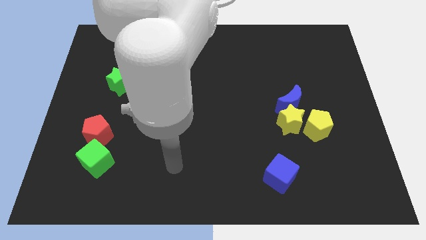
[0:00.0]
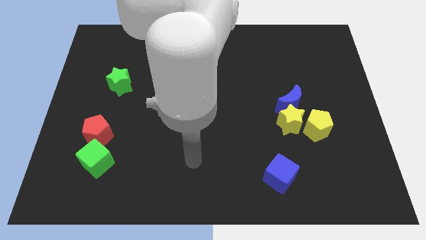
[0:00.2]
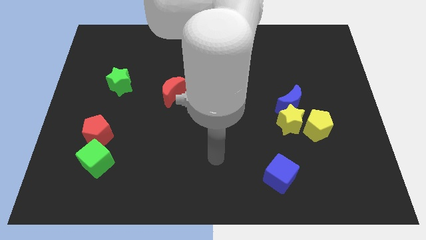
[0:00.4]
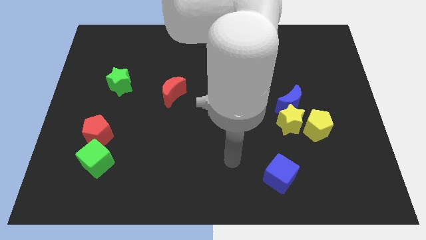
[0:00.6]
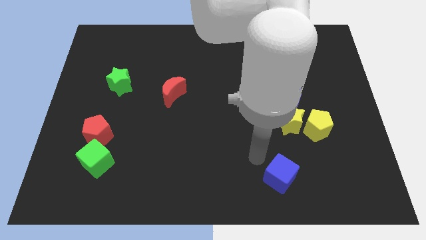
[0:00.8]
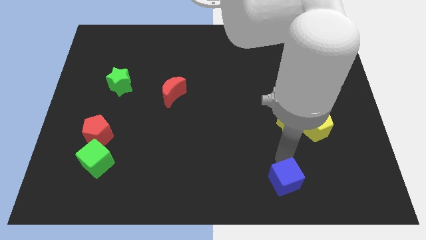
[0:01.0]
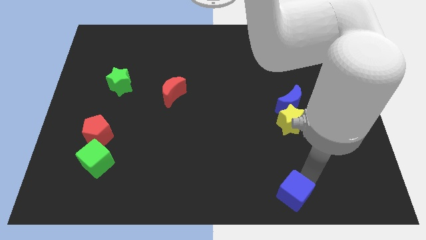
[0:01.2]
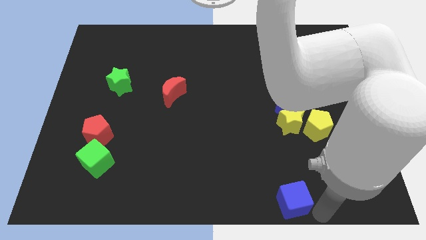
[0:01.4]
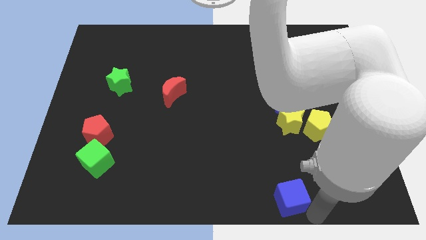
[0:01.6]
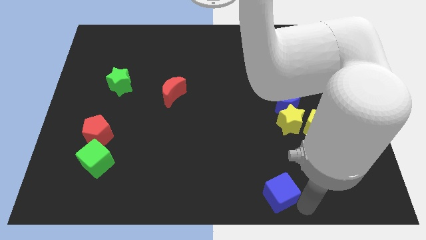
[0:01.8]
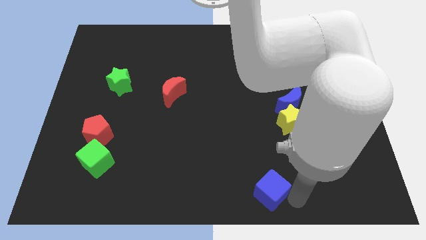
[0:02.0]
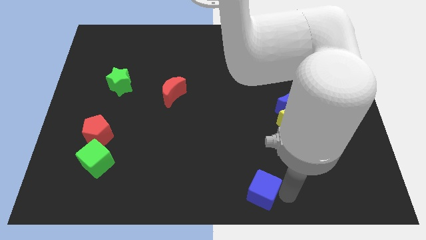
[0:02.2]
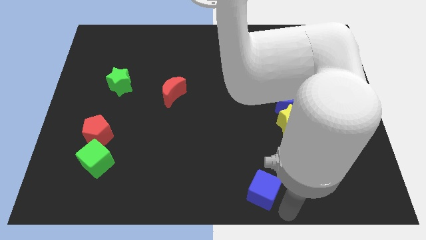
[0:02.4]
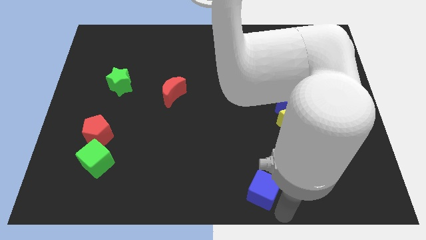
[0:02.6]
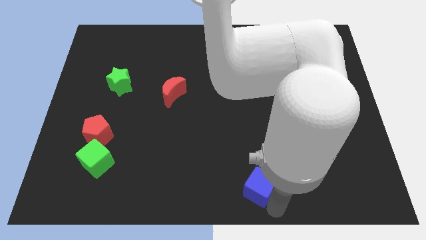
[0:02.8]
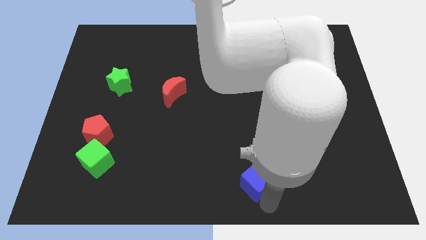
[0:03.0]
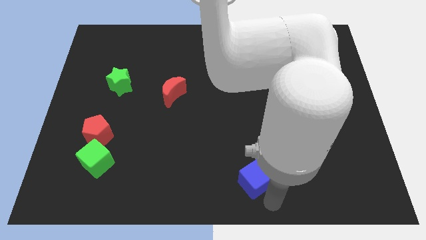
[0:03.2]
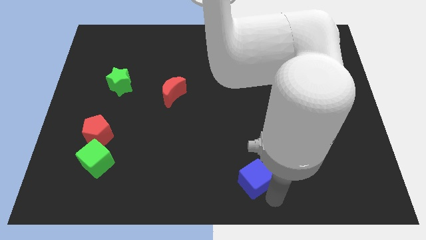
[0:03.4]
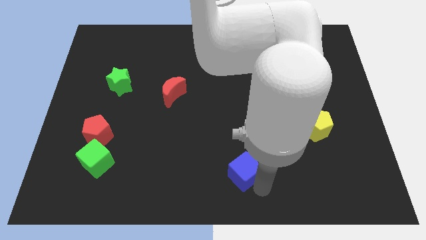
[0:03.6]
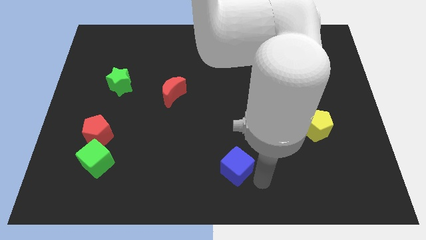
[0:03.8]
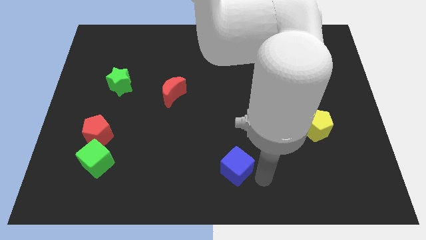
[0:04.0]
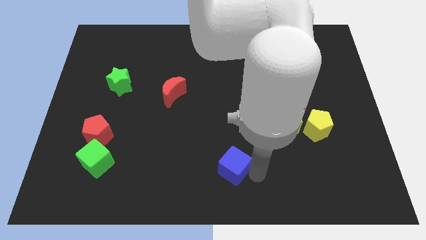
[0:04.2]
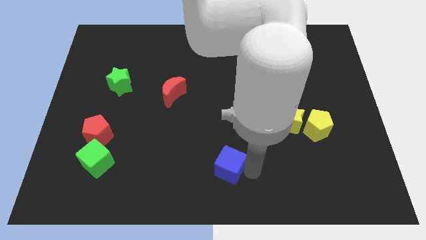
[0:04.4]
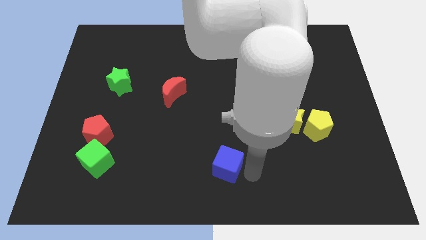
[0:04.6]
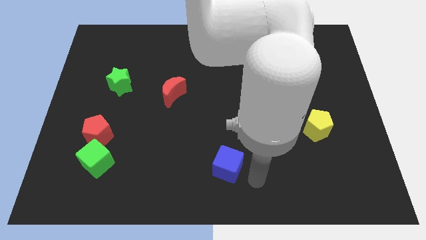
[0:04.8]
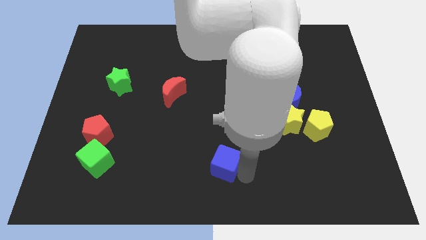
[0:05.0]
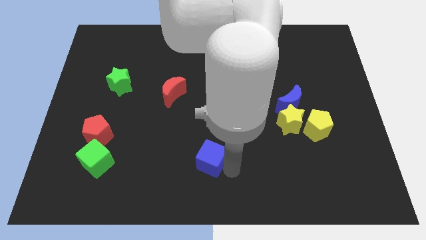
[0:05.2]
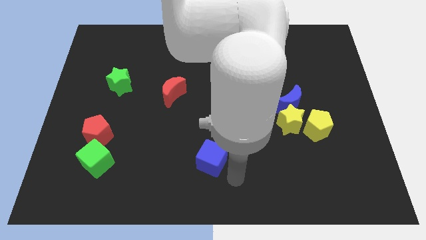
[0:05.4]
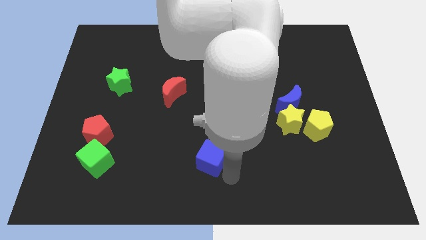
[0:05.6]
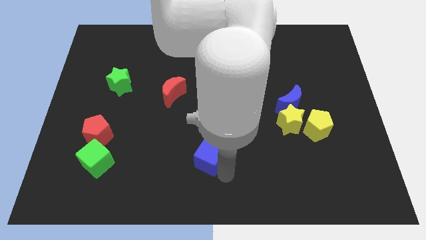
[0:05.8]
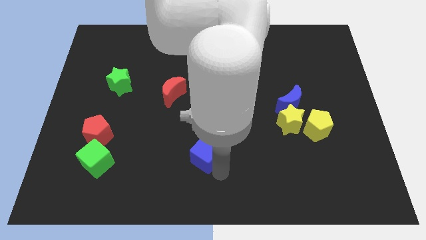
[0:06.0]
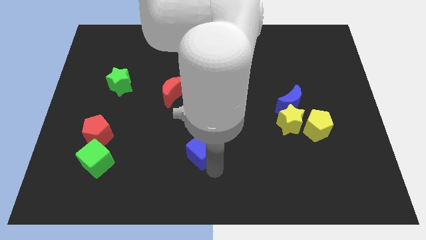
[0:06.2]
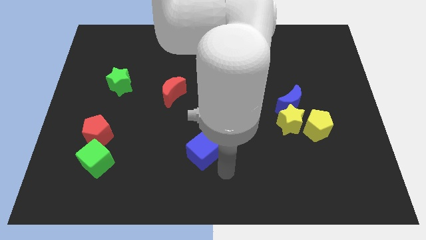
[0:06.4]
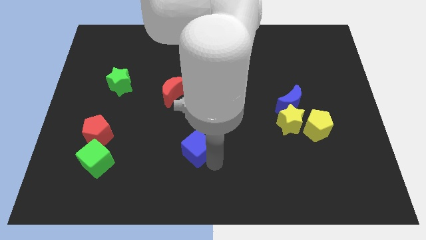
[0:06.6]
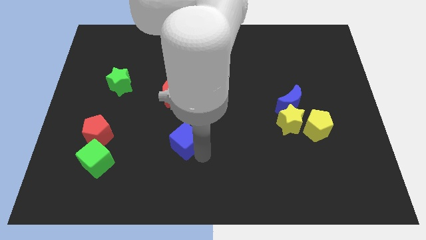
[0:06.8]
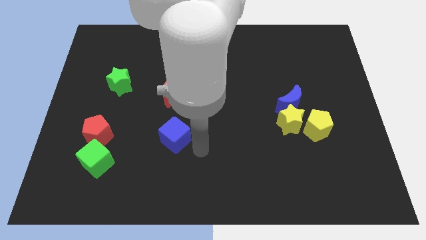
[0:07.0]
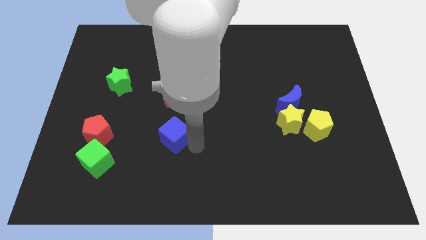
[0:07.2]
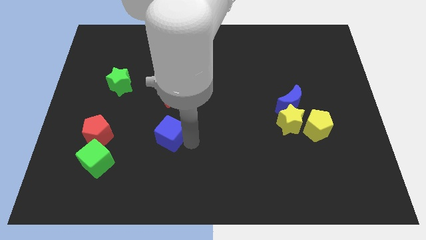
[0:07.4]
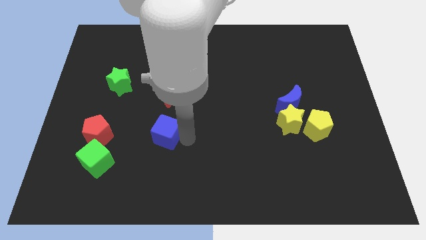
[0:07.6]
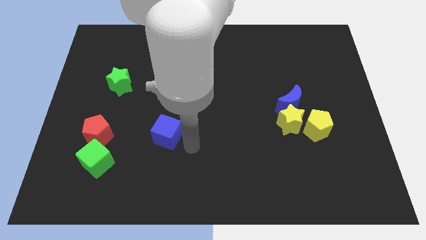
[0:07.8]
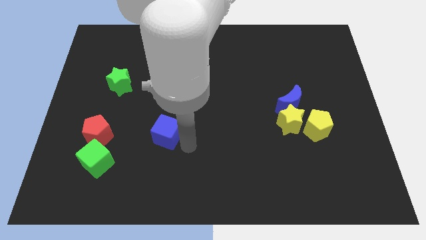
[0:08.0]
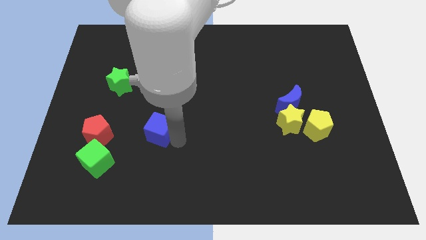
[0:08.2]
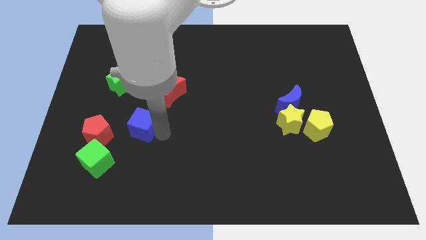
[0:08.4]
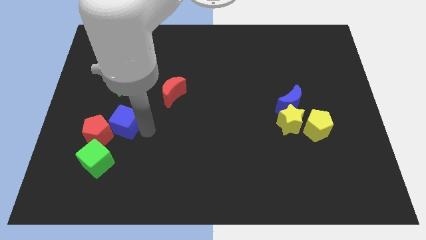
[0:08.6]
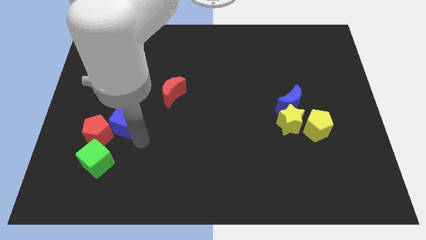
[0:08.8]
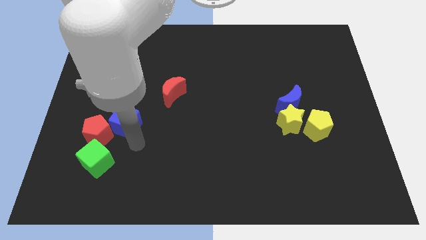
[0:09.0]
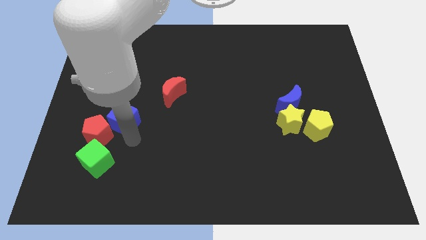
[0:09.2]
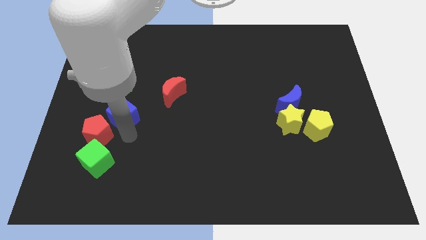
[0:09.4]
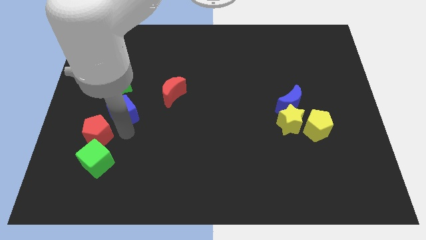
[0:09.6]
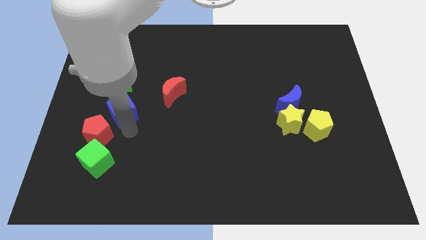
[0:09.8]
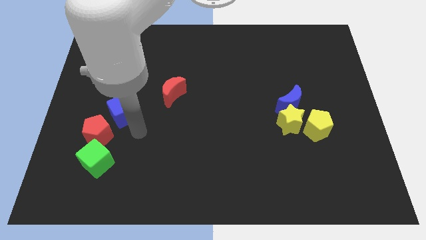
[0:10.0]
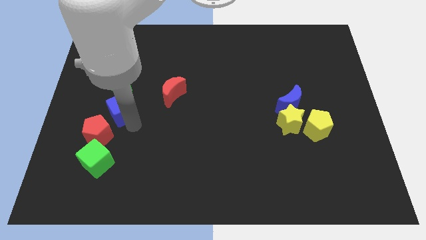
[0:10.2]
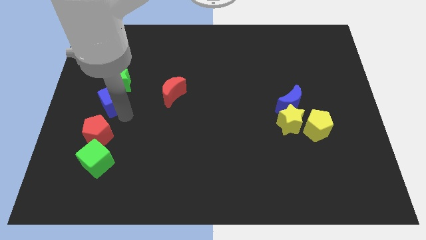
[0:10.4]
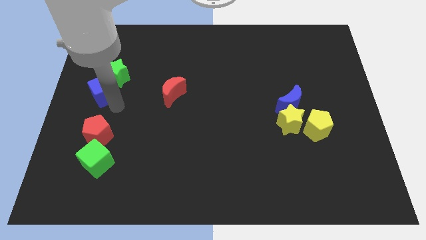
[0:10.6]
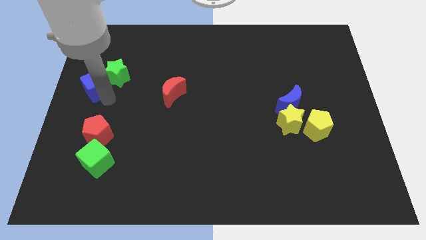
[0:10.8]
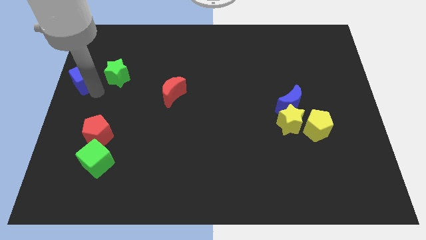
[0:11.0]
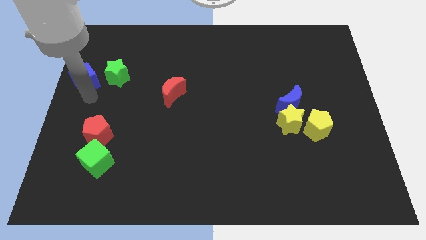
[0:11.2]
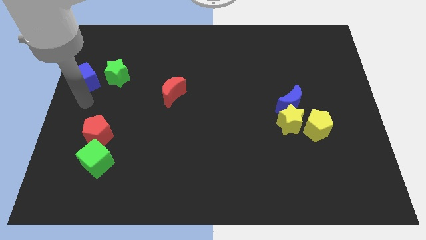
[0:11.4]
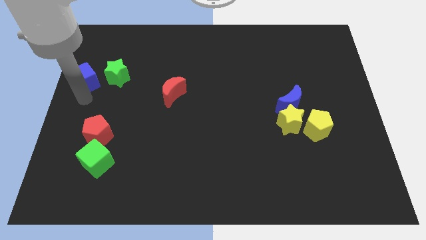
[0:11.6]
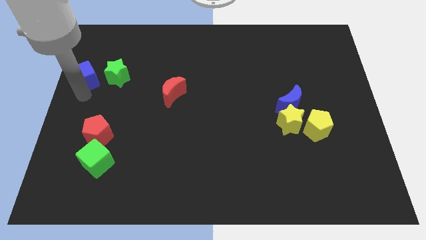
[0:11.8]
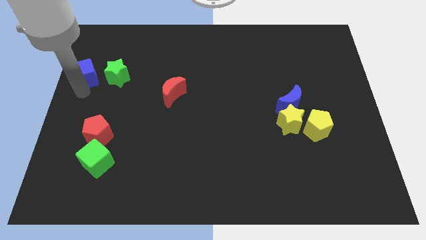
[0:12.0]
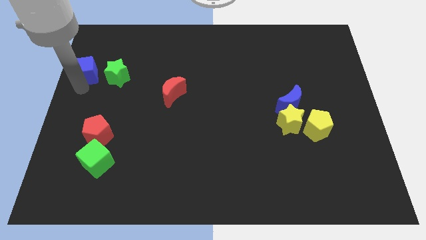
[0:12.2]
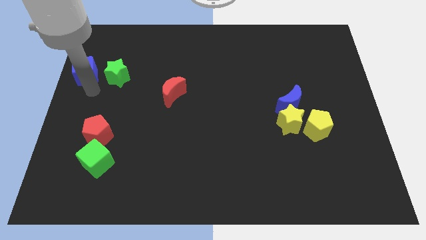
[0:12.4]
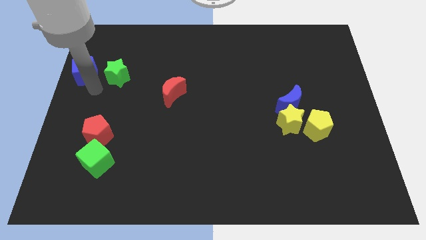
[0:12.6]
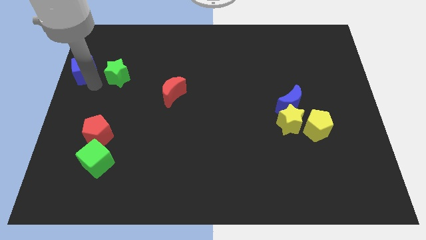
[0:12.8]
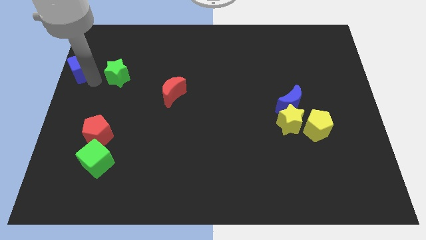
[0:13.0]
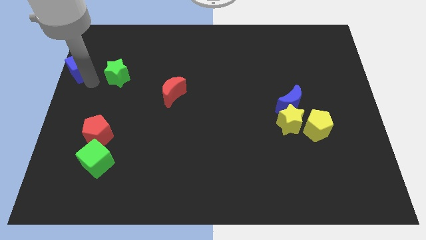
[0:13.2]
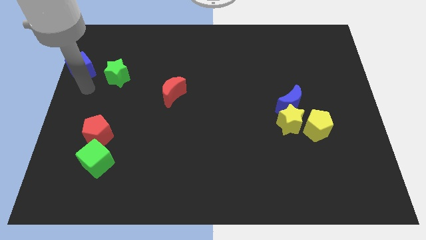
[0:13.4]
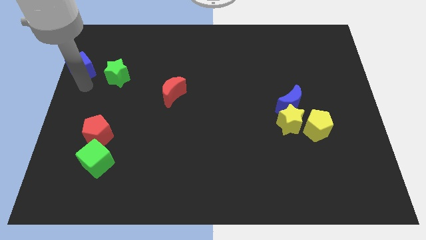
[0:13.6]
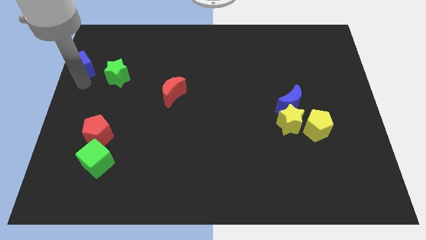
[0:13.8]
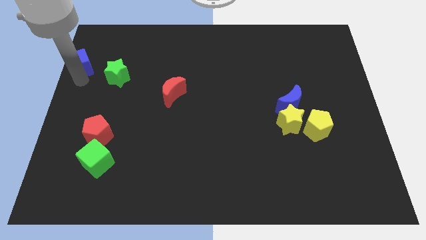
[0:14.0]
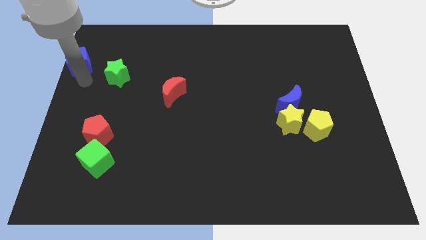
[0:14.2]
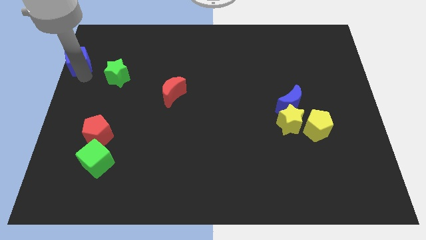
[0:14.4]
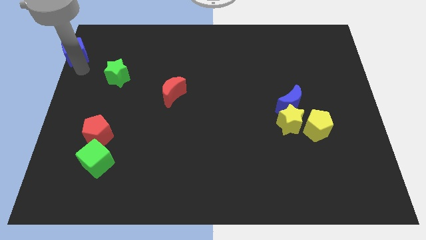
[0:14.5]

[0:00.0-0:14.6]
put the blue cube to the top left of the board
